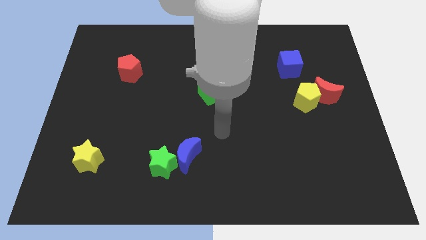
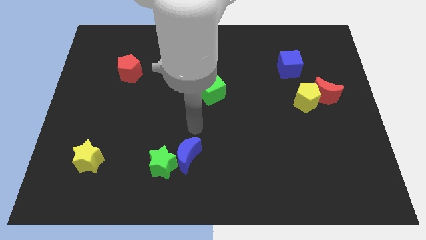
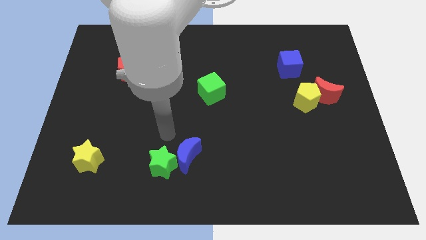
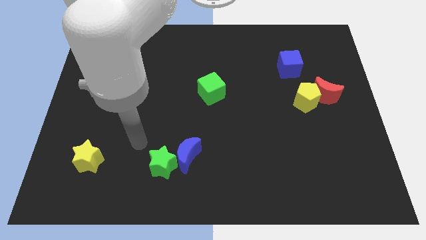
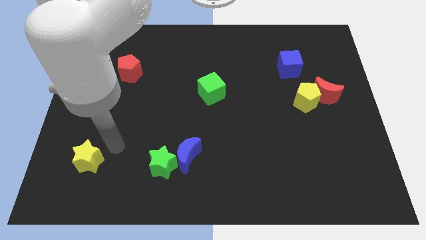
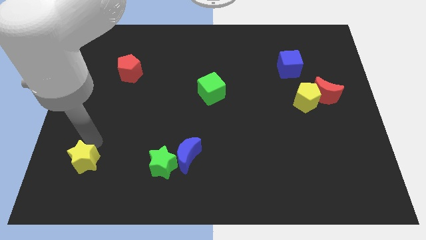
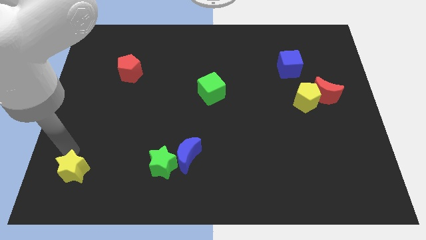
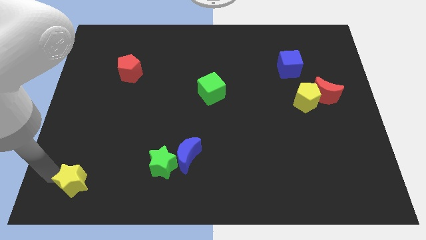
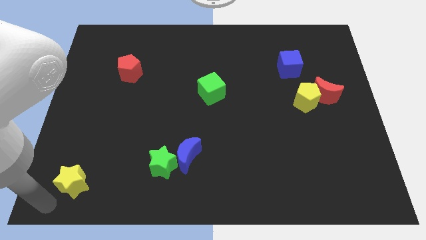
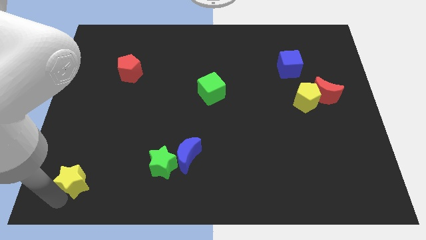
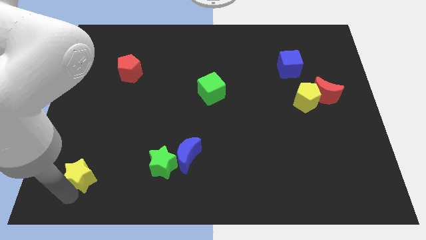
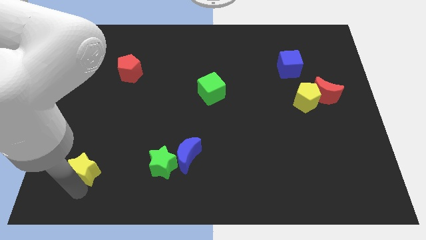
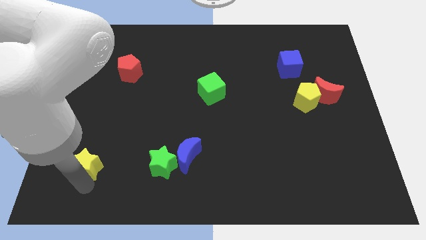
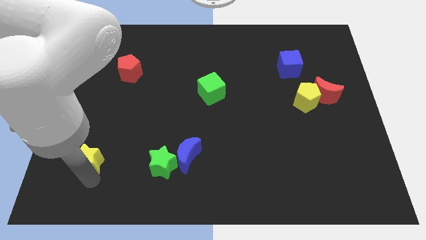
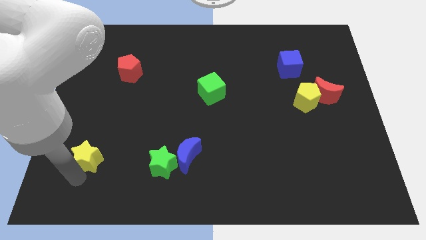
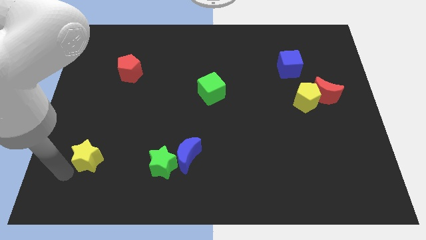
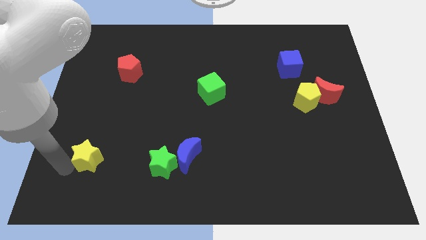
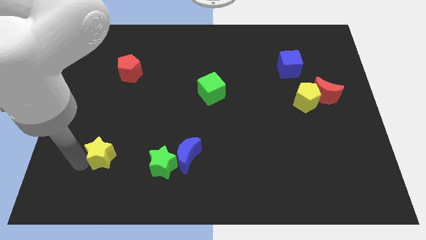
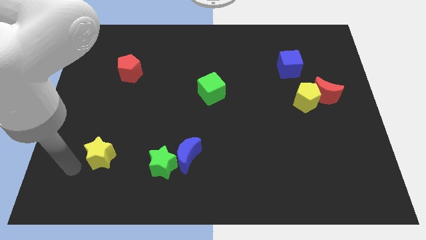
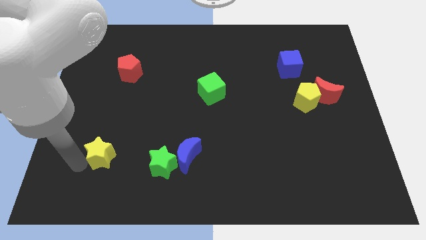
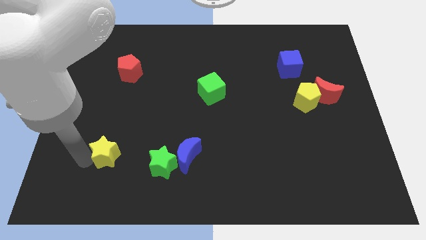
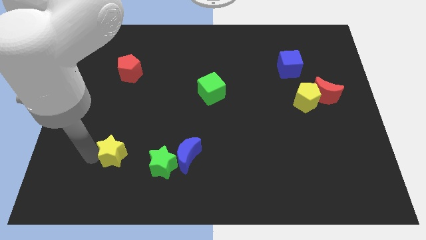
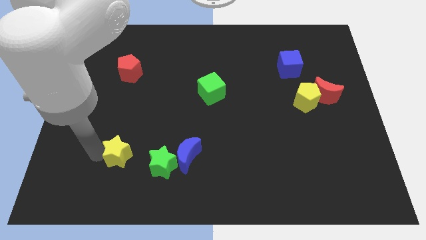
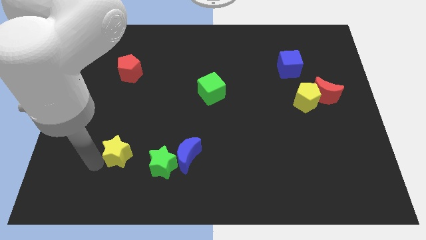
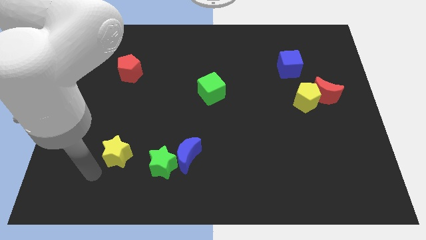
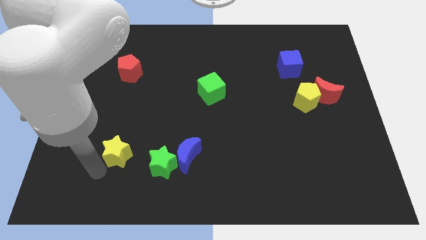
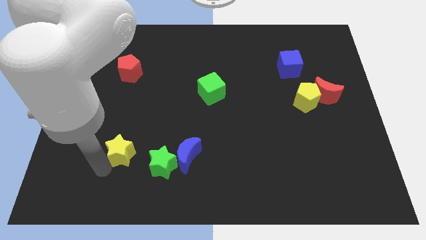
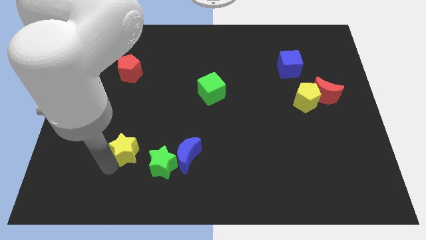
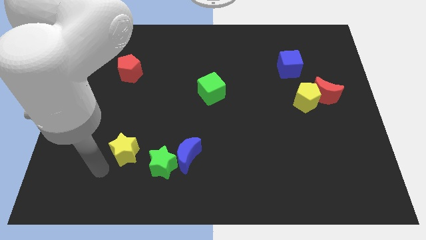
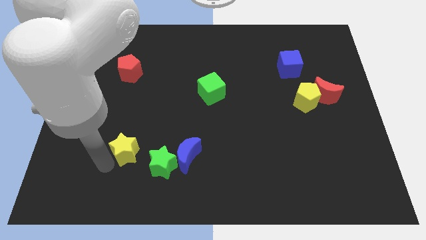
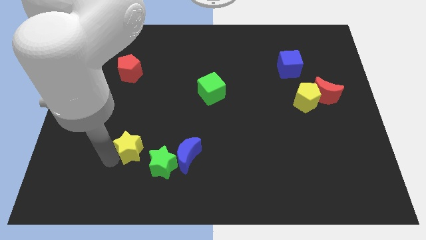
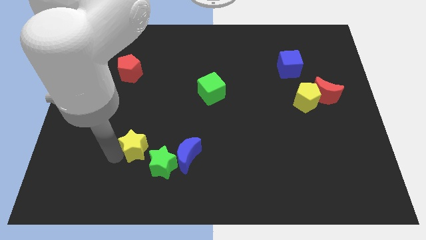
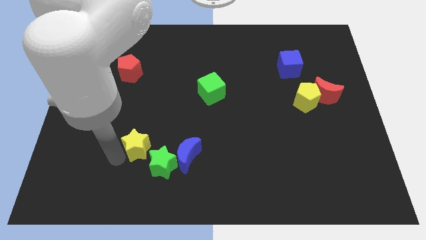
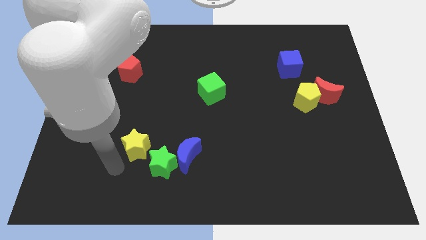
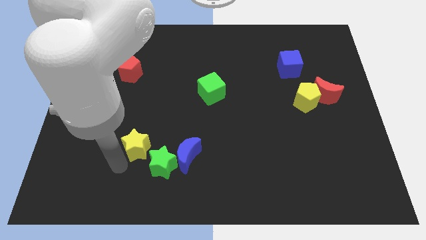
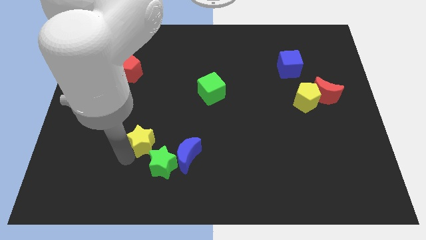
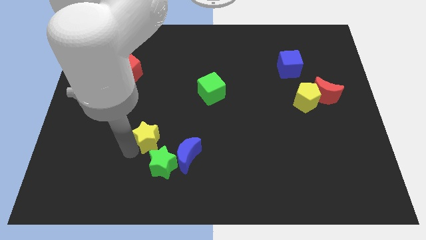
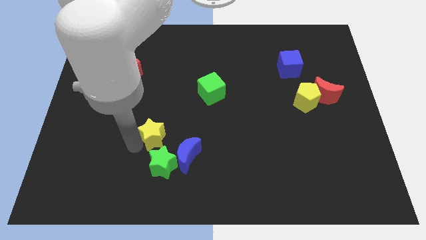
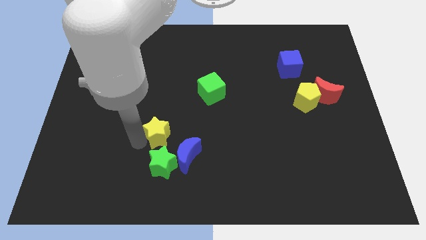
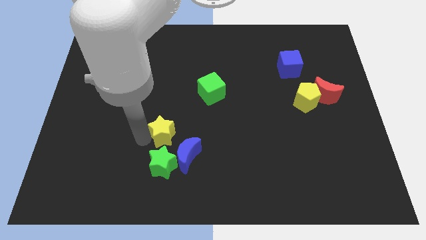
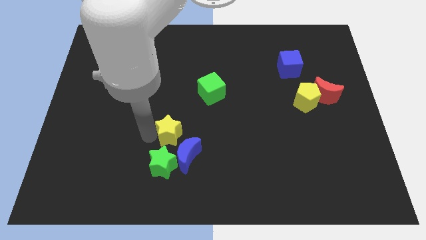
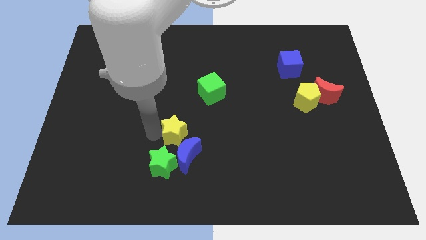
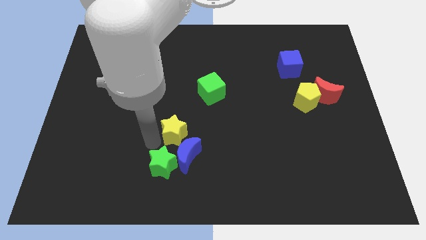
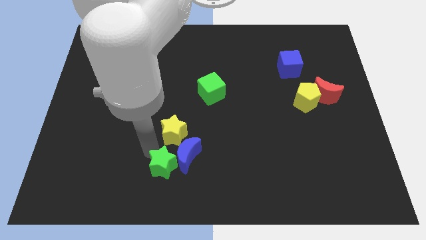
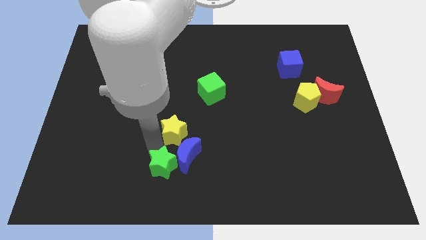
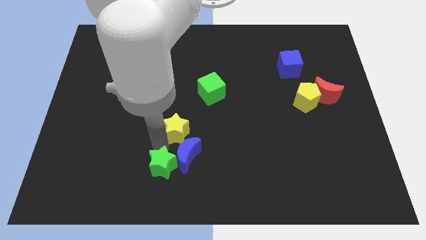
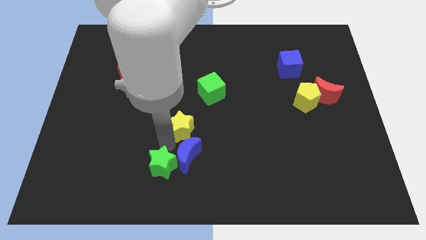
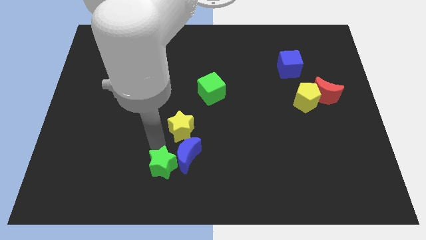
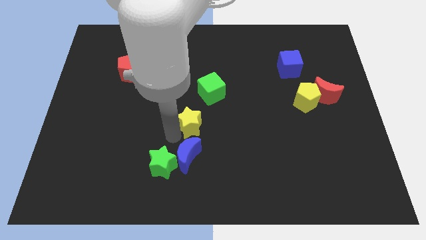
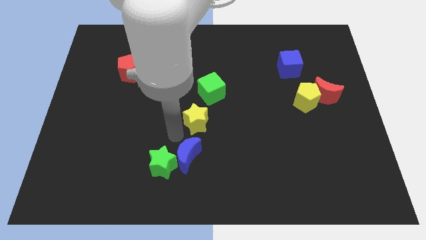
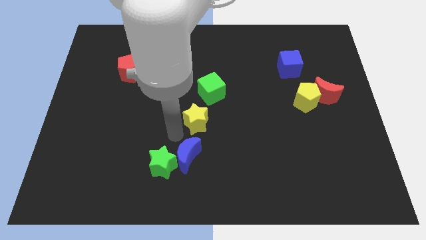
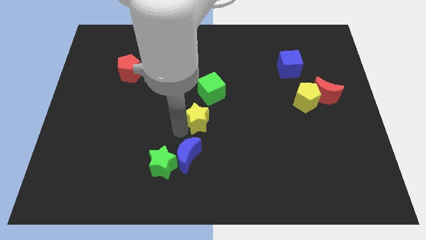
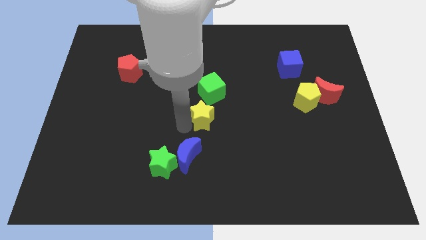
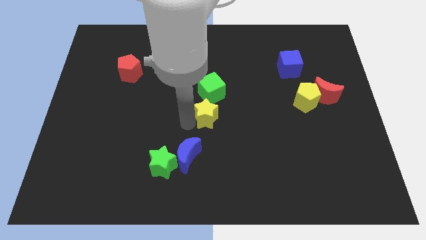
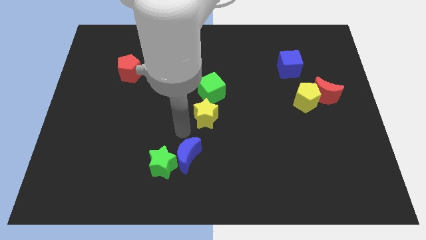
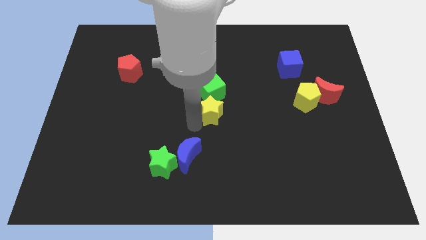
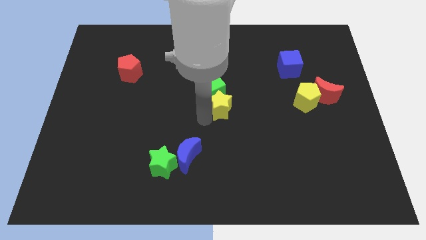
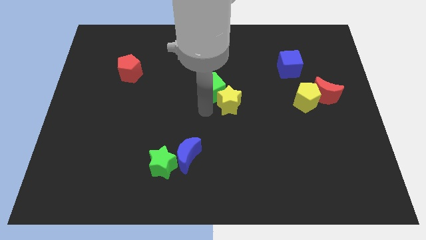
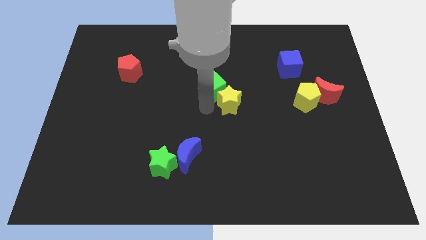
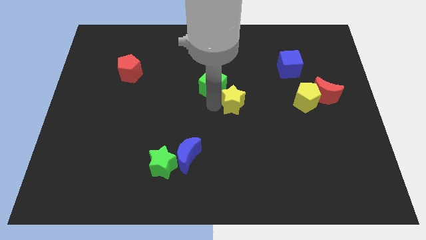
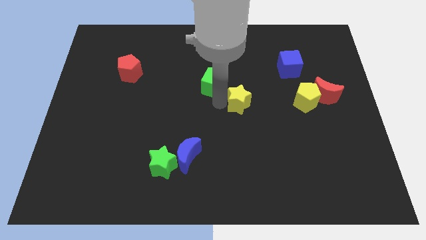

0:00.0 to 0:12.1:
slide the yellow star just left of the yellow pentagon

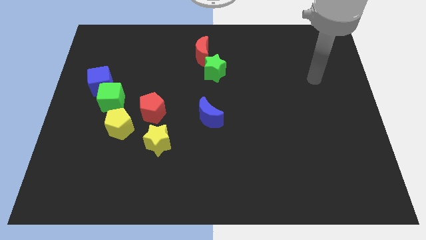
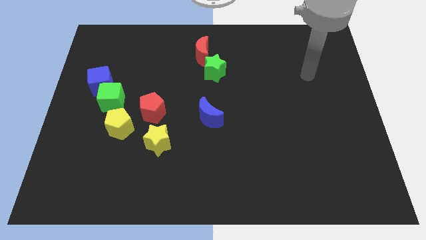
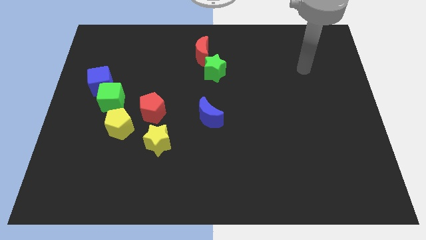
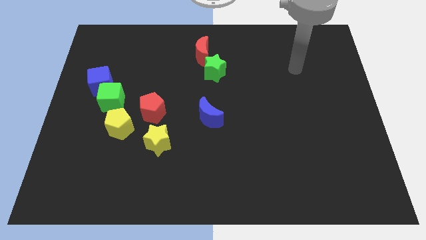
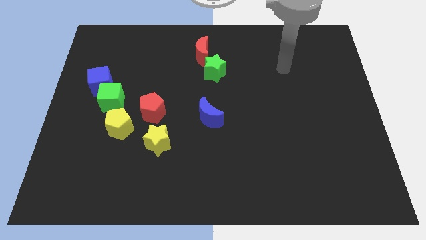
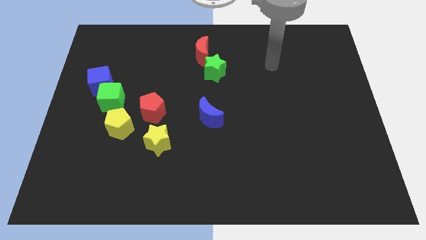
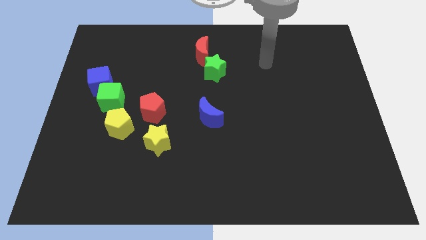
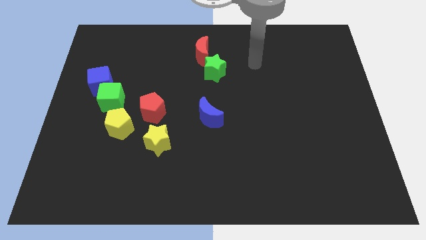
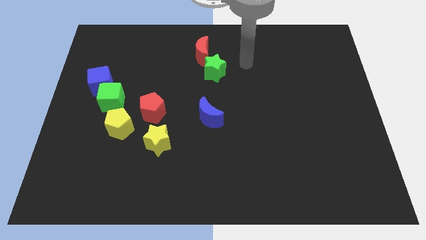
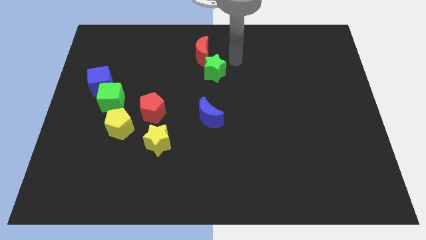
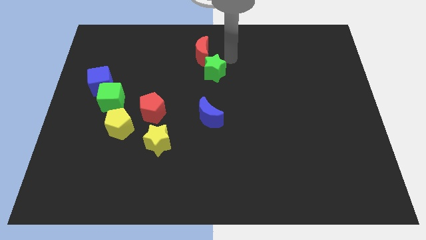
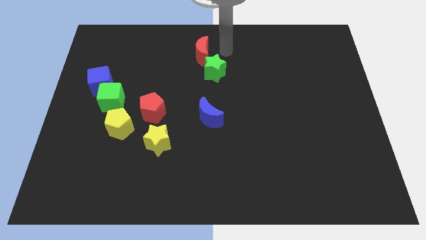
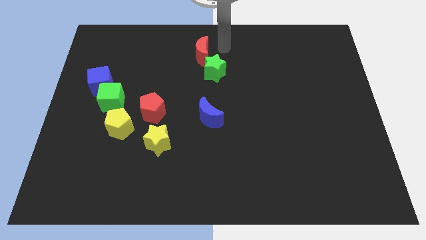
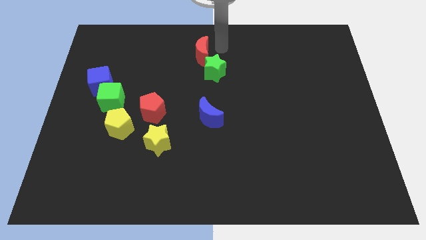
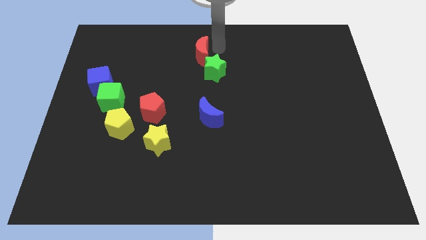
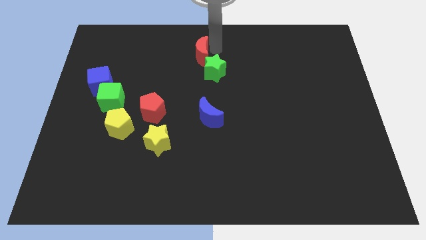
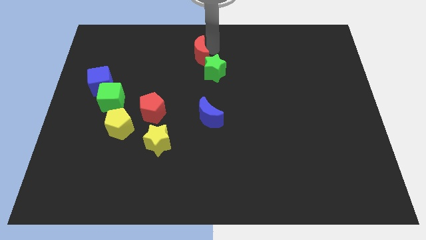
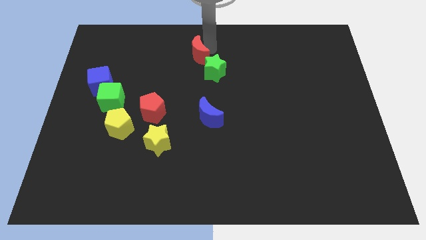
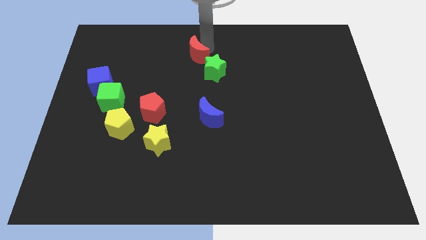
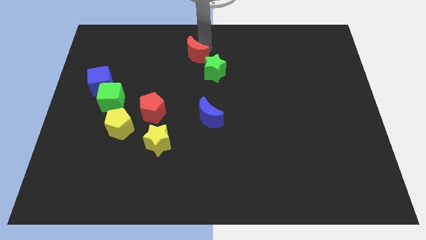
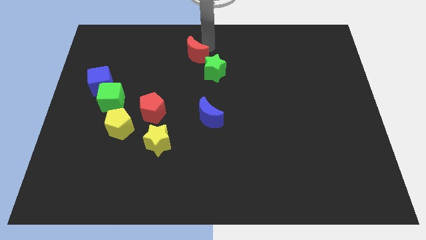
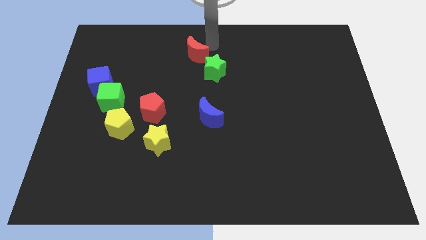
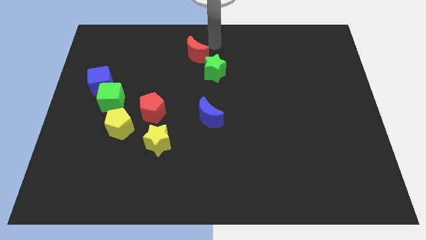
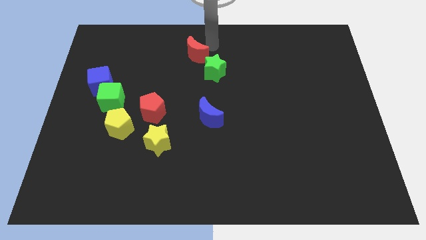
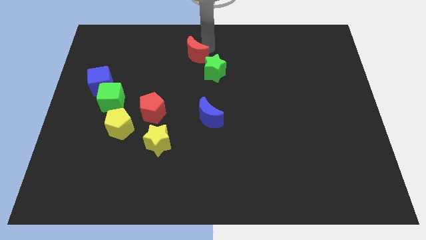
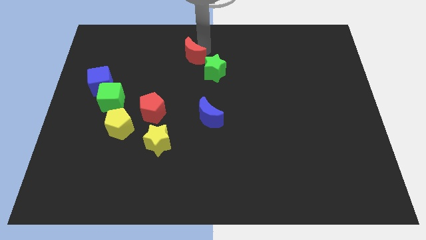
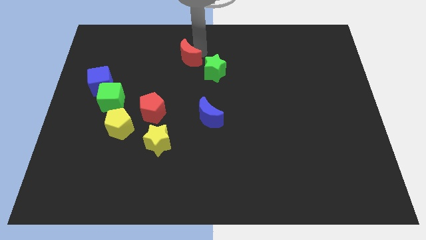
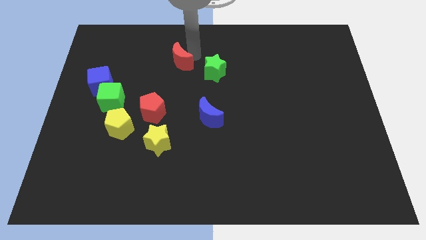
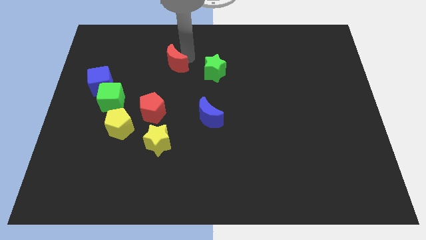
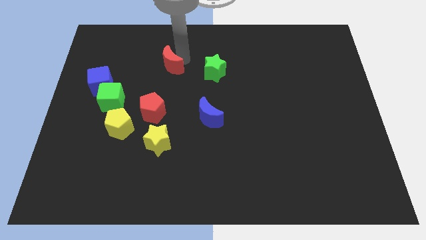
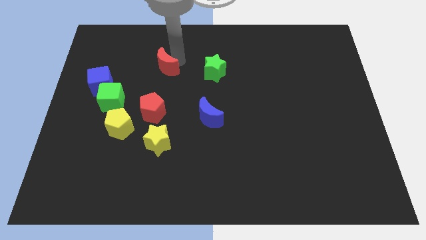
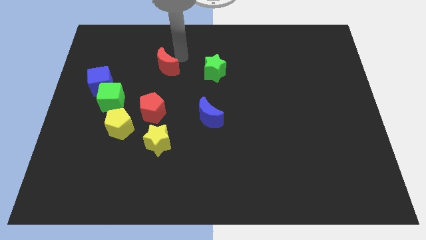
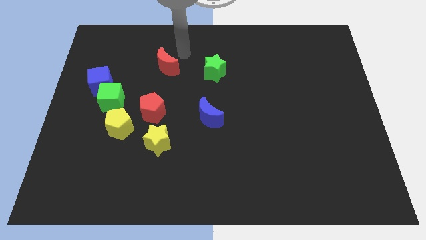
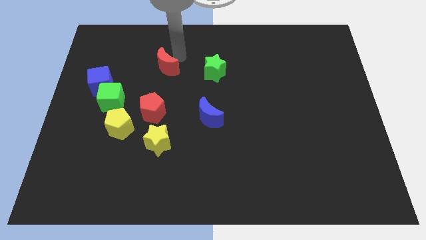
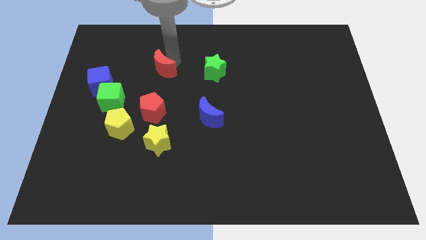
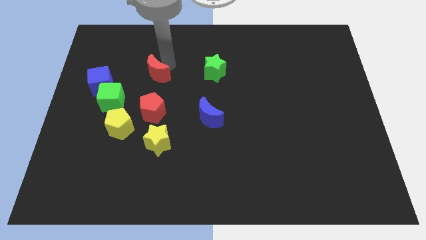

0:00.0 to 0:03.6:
put the red moon to the right side of the blue cube
